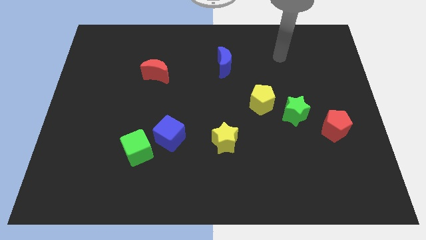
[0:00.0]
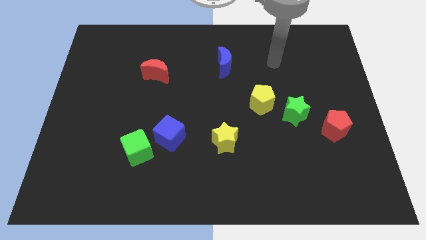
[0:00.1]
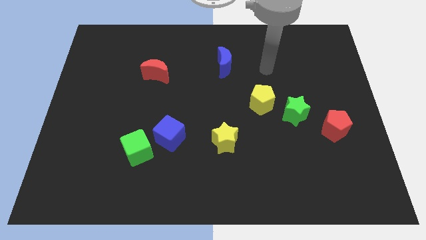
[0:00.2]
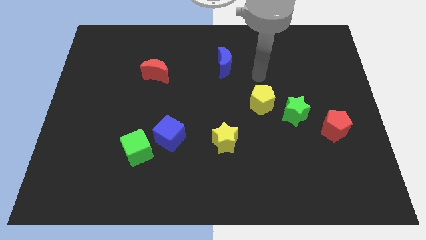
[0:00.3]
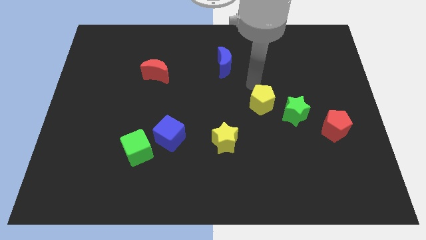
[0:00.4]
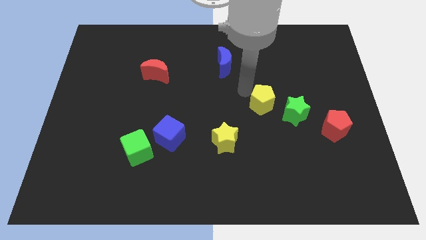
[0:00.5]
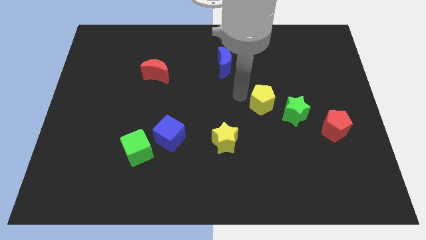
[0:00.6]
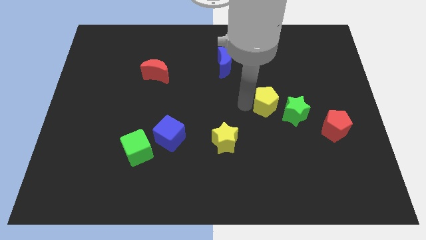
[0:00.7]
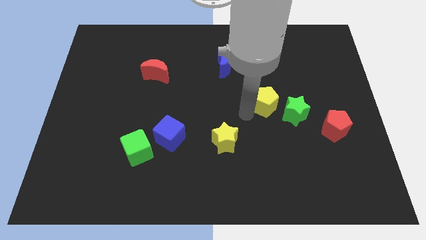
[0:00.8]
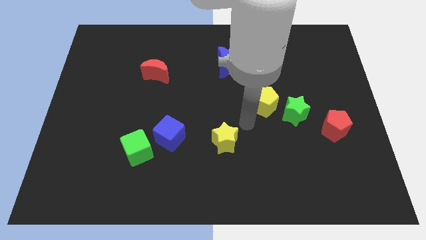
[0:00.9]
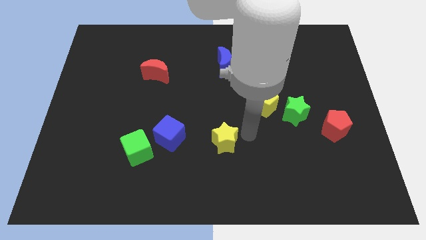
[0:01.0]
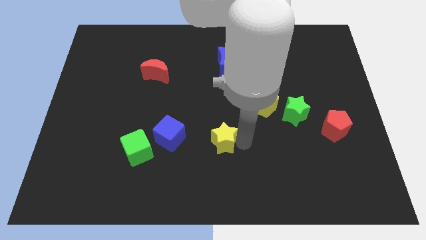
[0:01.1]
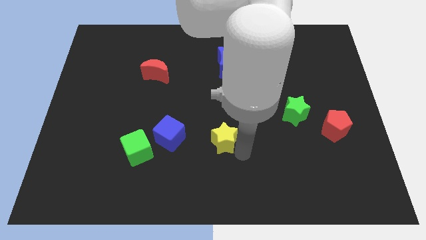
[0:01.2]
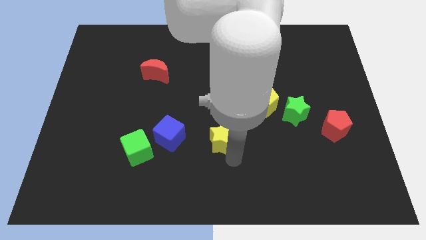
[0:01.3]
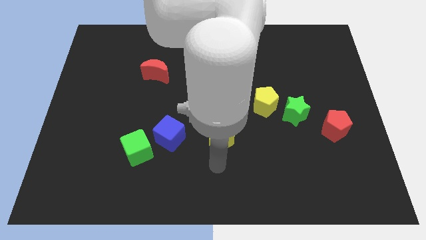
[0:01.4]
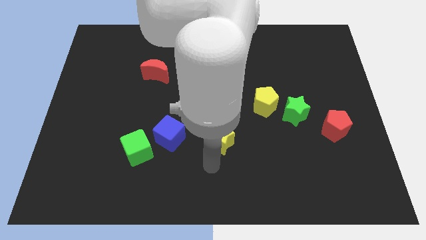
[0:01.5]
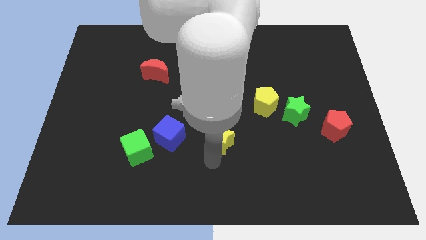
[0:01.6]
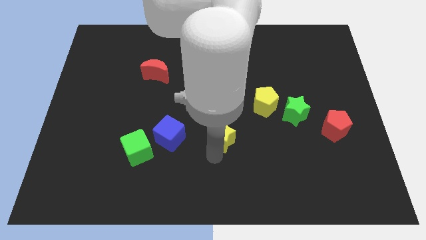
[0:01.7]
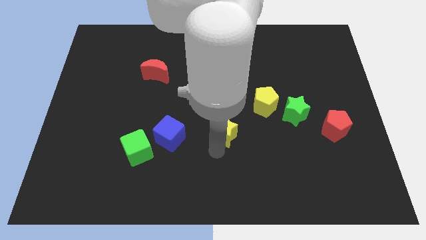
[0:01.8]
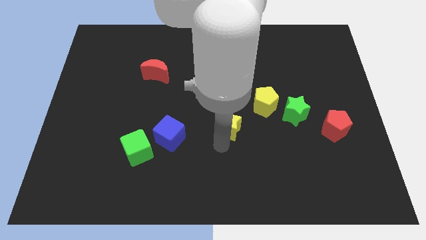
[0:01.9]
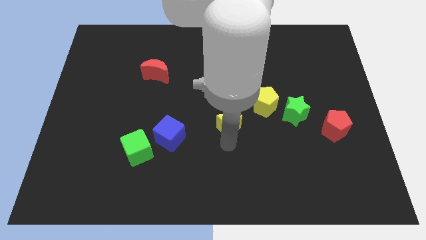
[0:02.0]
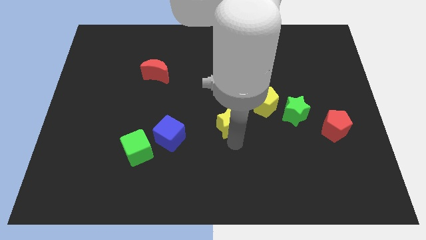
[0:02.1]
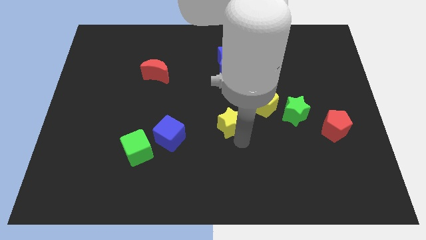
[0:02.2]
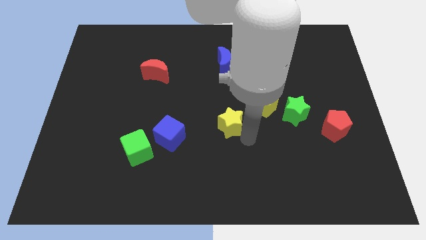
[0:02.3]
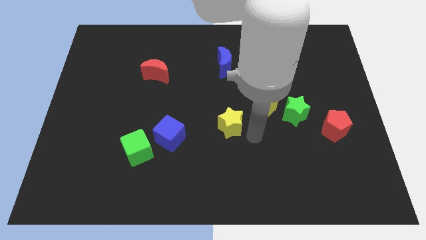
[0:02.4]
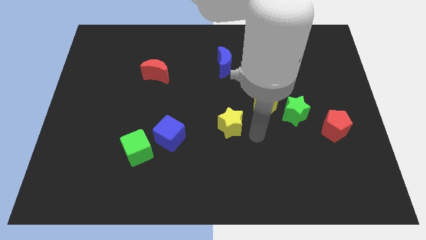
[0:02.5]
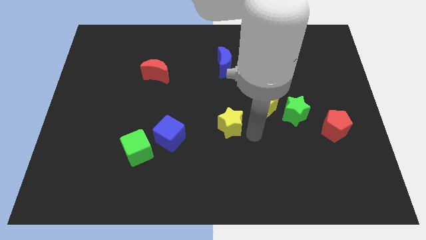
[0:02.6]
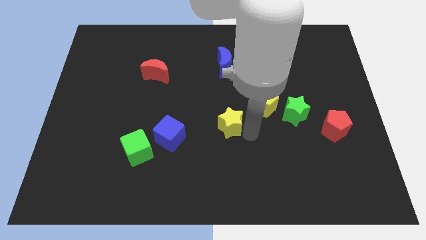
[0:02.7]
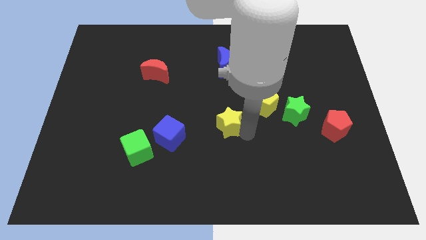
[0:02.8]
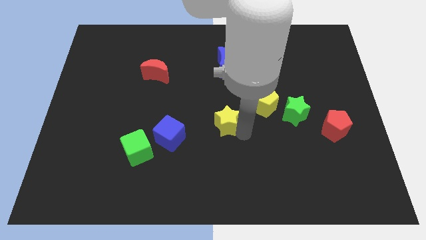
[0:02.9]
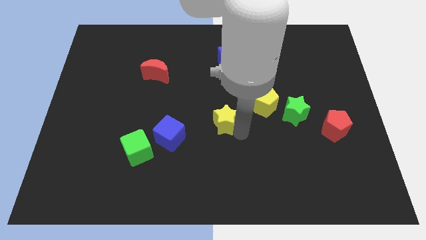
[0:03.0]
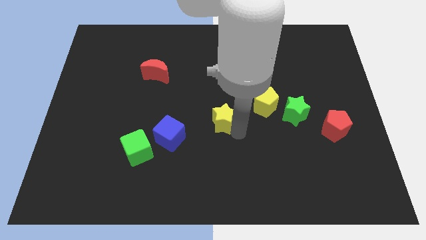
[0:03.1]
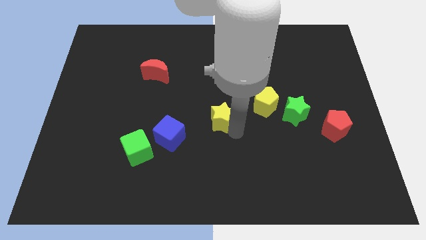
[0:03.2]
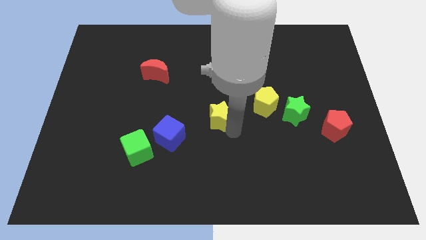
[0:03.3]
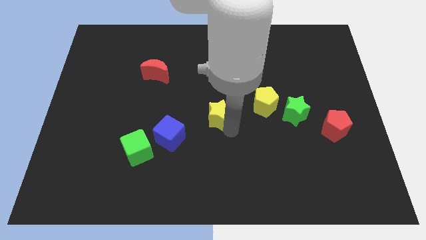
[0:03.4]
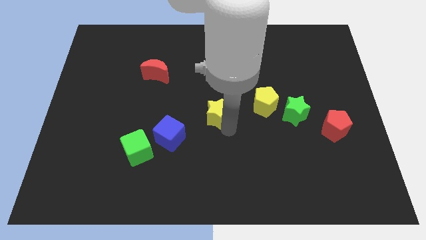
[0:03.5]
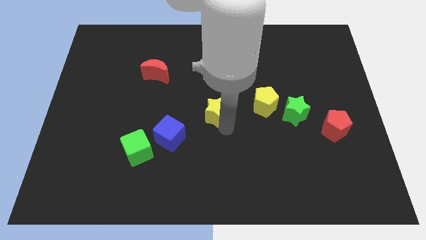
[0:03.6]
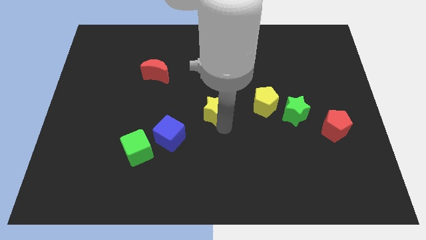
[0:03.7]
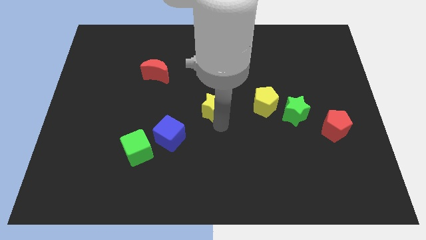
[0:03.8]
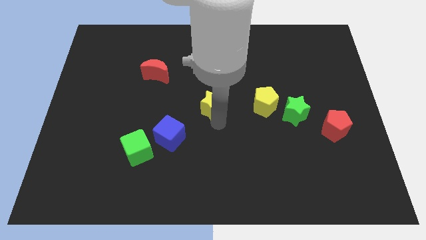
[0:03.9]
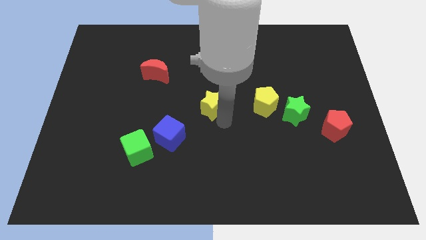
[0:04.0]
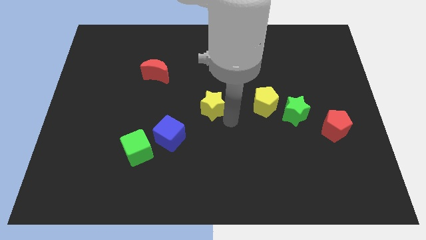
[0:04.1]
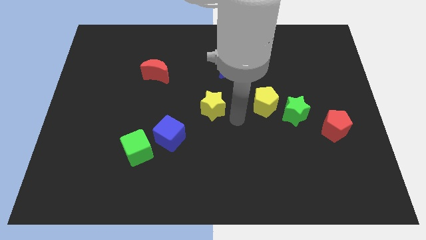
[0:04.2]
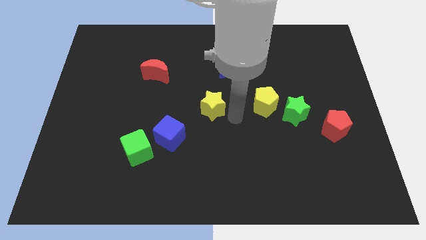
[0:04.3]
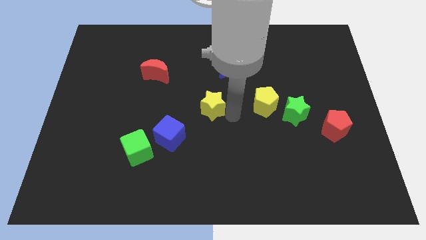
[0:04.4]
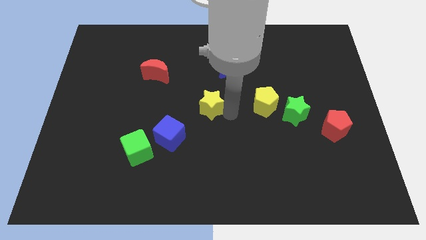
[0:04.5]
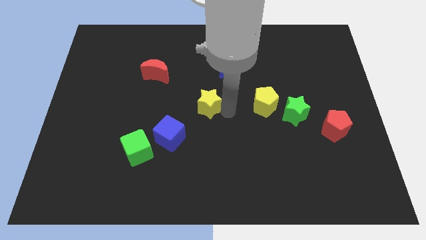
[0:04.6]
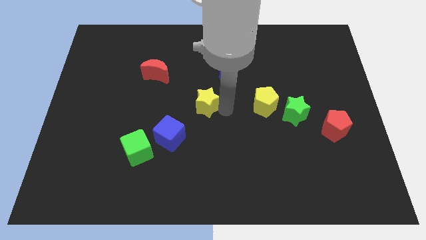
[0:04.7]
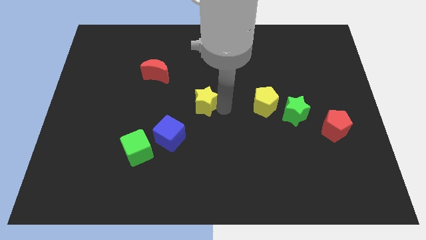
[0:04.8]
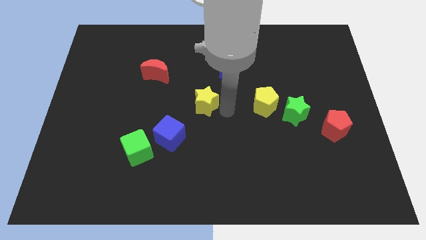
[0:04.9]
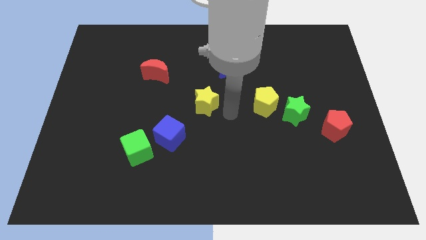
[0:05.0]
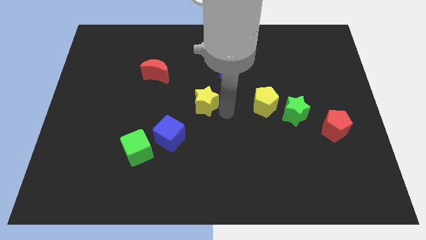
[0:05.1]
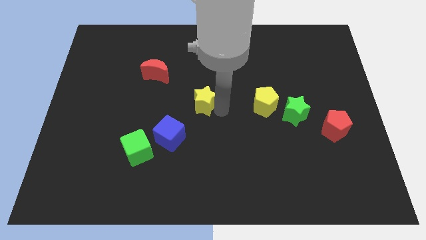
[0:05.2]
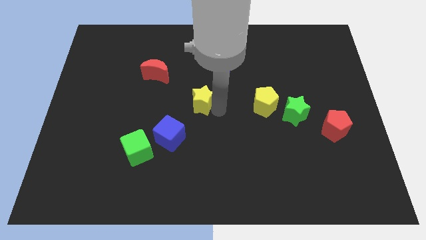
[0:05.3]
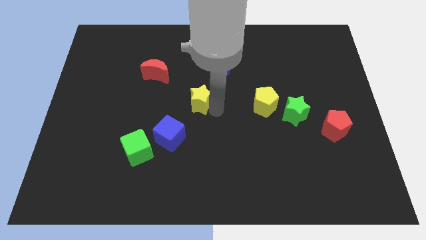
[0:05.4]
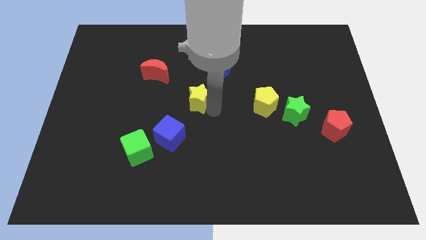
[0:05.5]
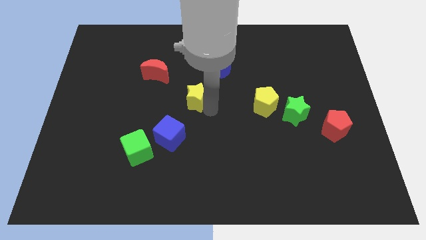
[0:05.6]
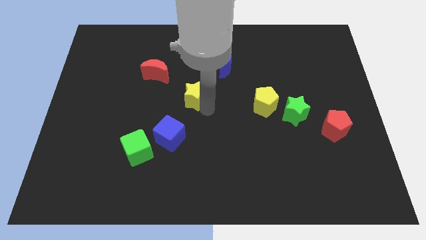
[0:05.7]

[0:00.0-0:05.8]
push the yellow star to the bottom right side of the red moon

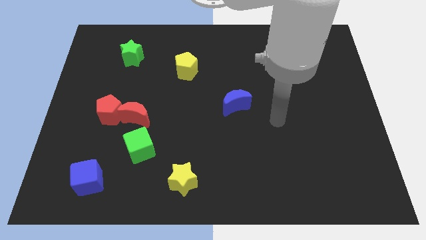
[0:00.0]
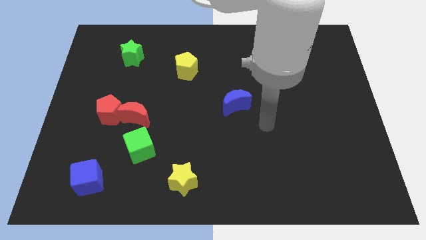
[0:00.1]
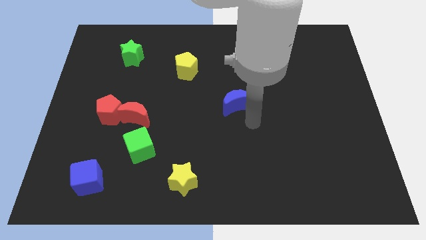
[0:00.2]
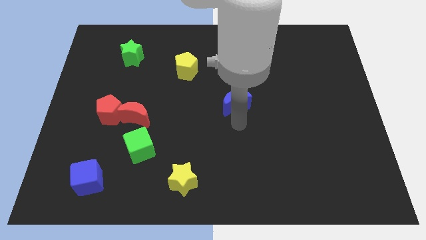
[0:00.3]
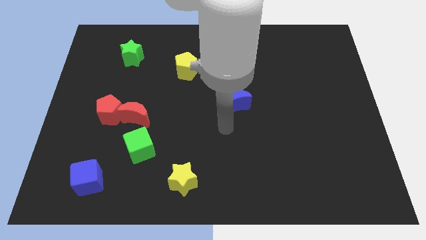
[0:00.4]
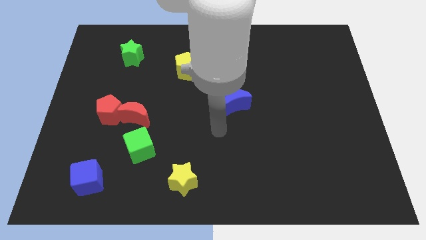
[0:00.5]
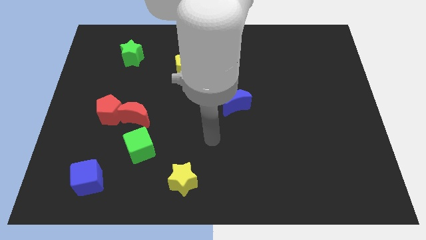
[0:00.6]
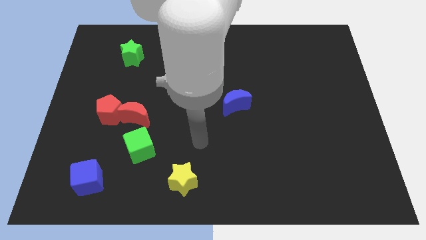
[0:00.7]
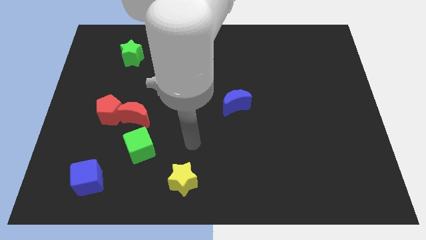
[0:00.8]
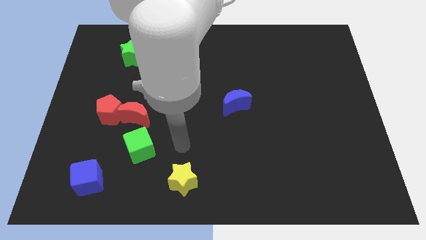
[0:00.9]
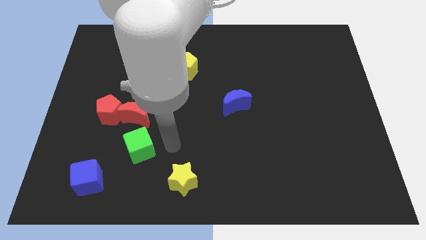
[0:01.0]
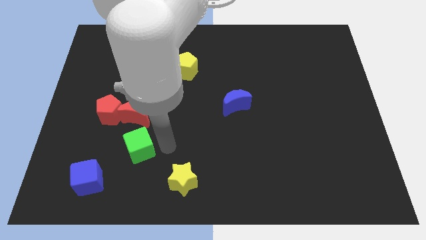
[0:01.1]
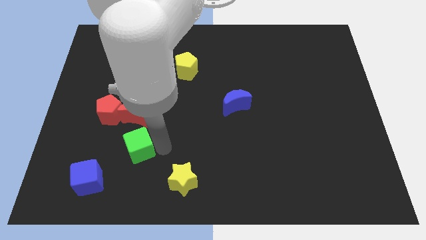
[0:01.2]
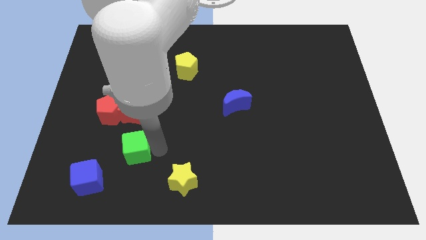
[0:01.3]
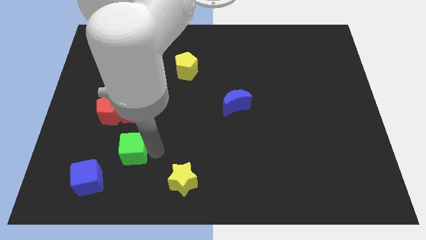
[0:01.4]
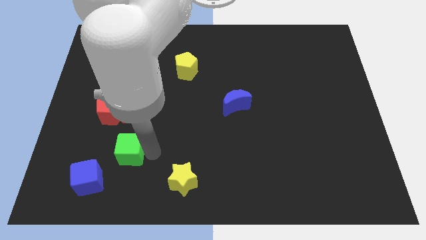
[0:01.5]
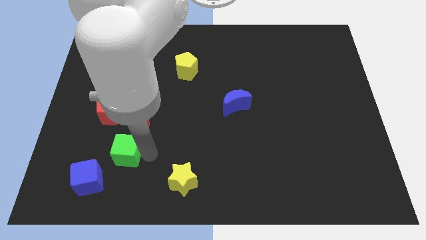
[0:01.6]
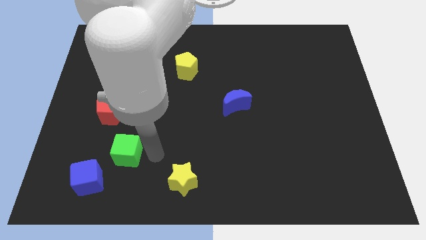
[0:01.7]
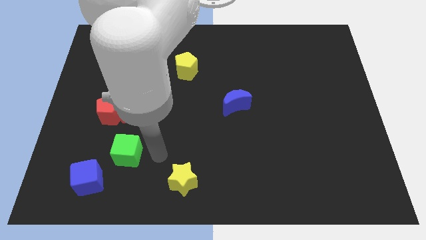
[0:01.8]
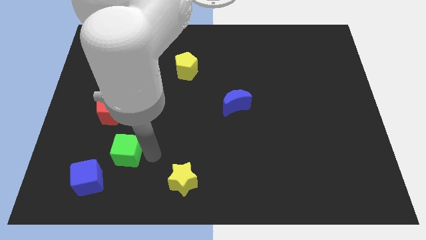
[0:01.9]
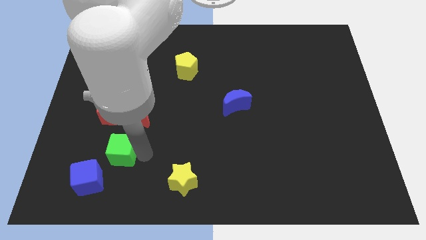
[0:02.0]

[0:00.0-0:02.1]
slide the green cube below the red pentagon

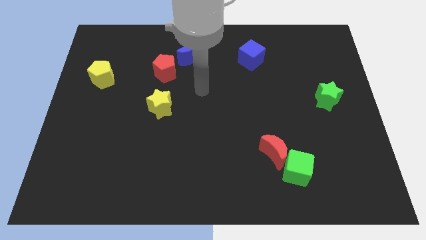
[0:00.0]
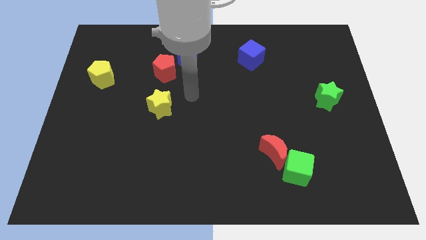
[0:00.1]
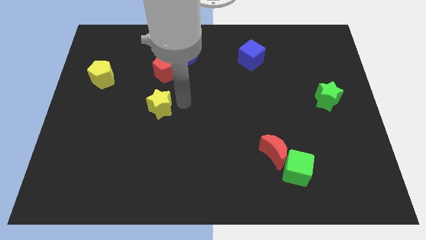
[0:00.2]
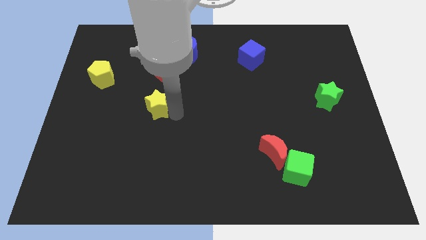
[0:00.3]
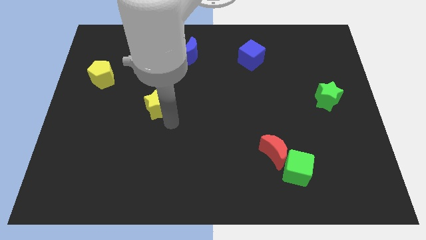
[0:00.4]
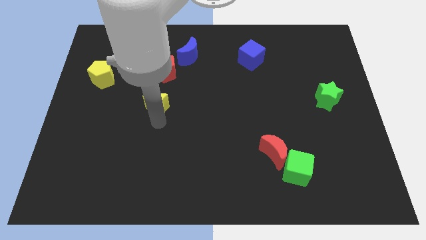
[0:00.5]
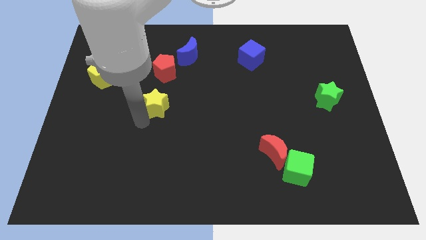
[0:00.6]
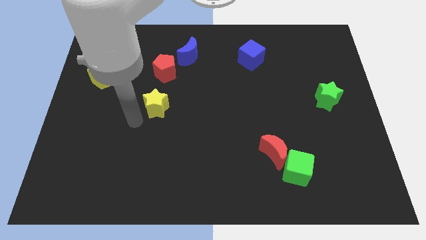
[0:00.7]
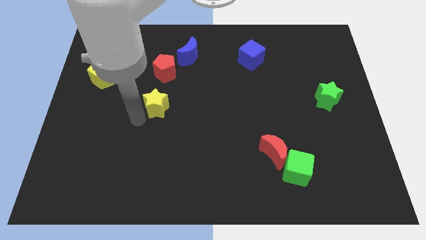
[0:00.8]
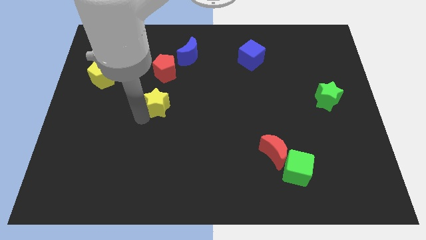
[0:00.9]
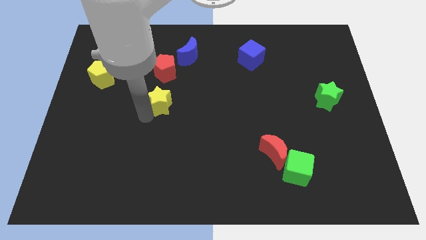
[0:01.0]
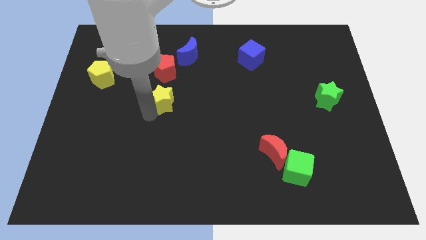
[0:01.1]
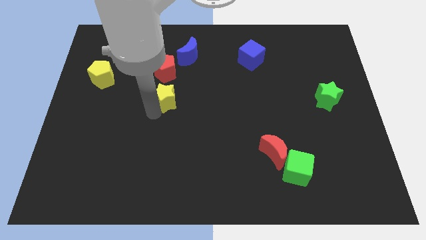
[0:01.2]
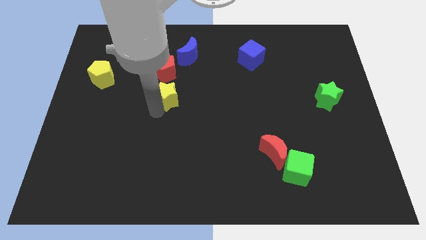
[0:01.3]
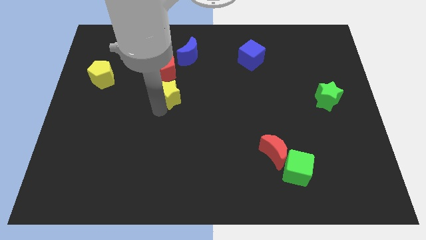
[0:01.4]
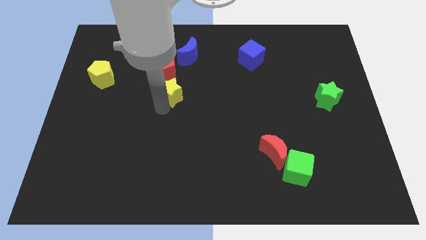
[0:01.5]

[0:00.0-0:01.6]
move the yellow star to the bottom of the blue moon
